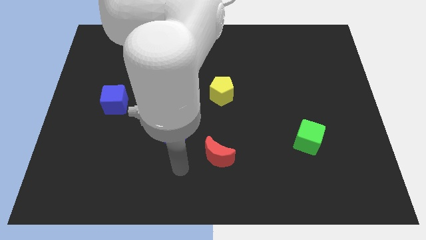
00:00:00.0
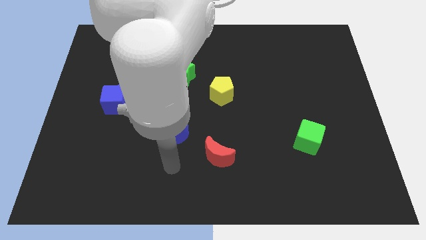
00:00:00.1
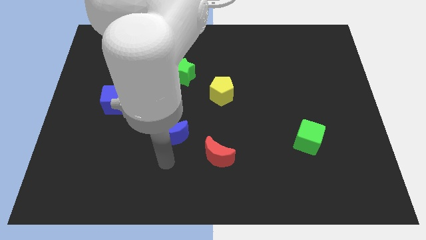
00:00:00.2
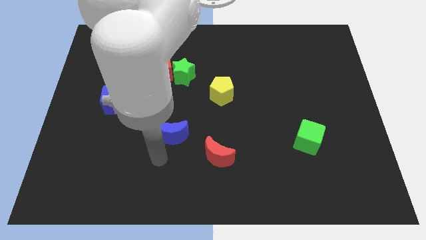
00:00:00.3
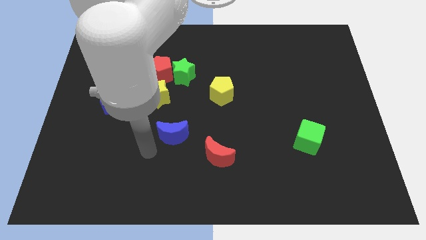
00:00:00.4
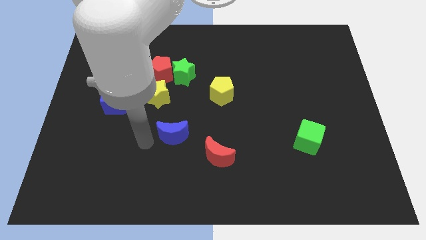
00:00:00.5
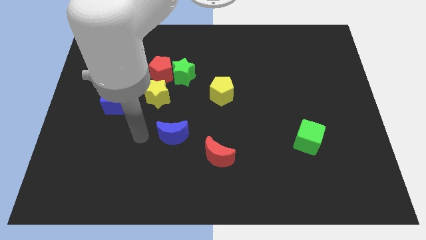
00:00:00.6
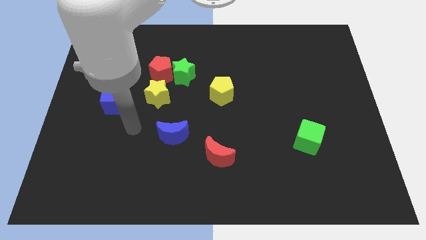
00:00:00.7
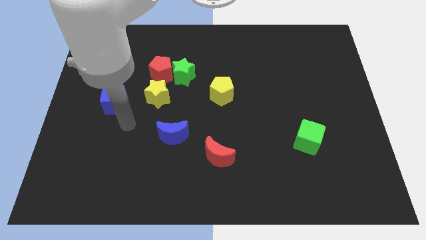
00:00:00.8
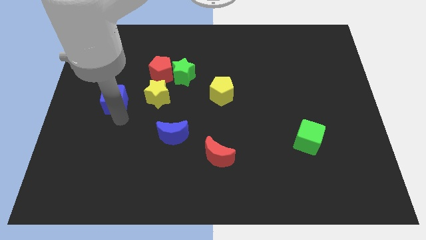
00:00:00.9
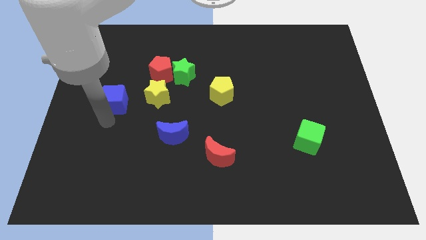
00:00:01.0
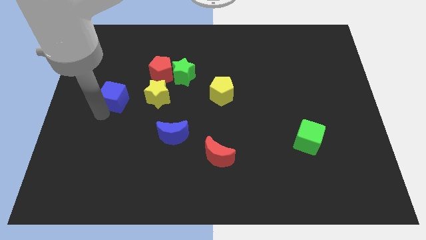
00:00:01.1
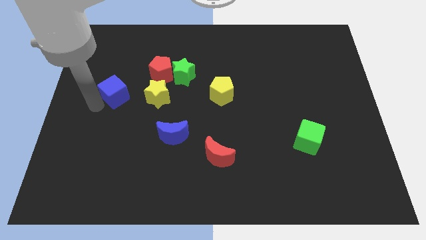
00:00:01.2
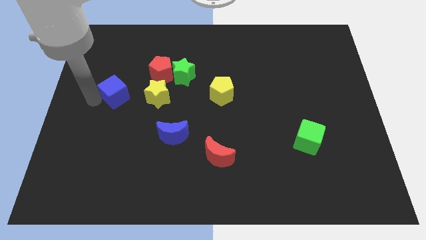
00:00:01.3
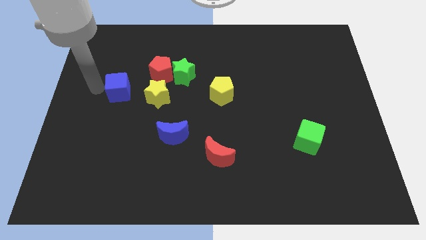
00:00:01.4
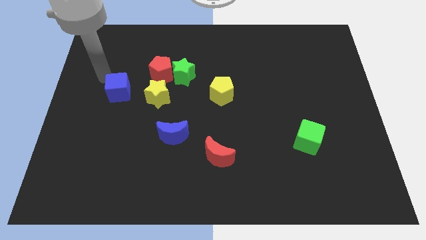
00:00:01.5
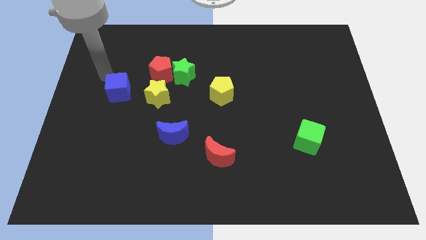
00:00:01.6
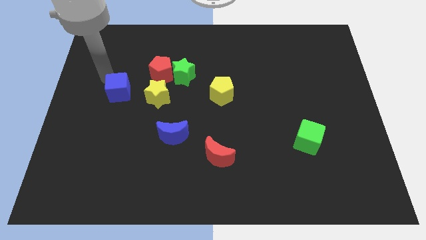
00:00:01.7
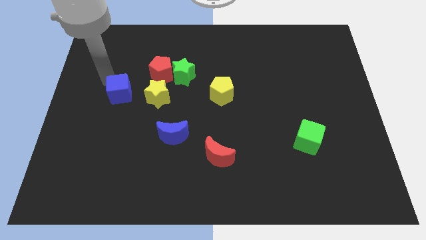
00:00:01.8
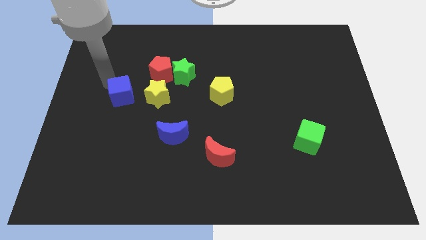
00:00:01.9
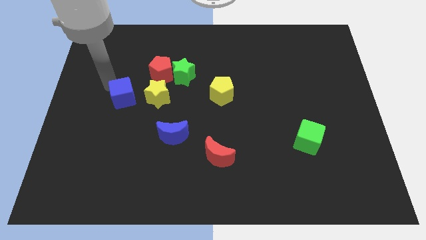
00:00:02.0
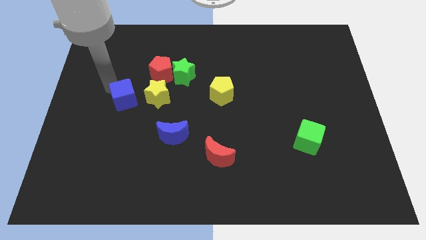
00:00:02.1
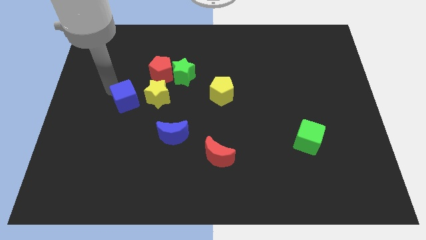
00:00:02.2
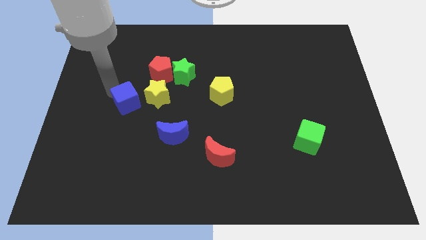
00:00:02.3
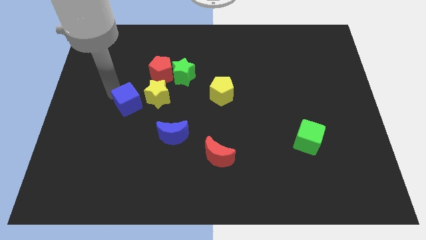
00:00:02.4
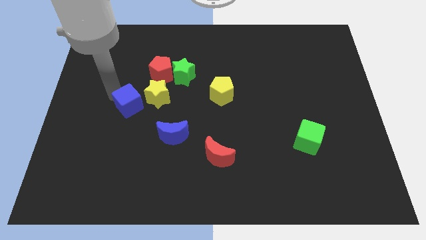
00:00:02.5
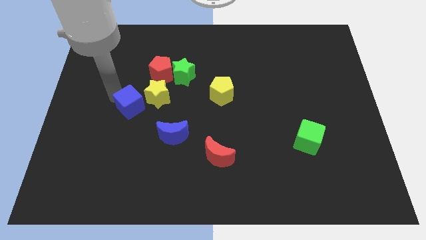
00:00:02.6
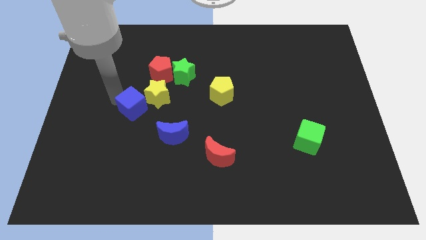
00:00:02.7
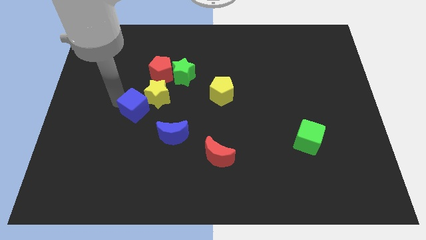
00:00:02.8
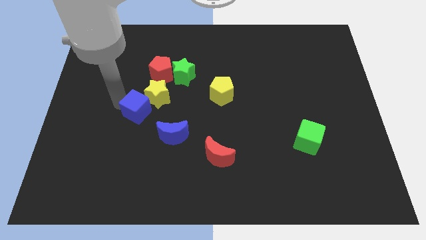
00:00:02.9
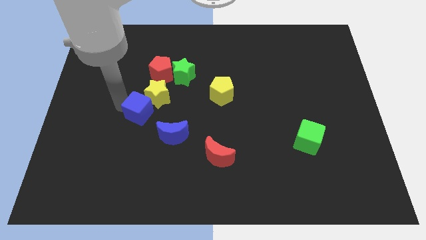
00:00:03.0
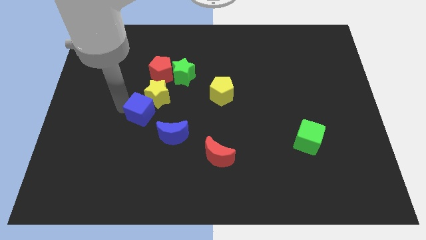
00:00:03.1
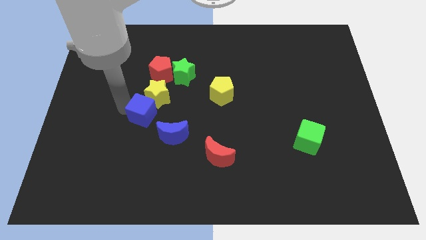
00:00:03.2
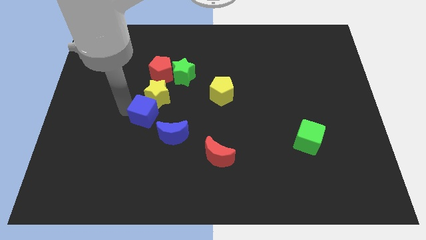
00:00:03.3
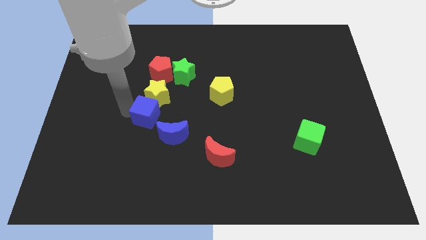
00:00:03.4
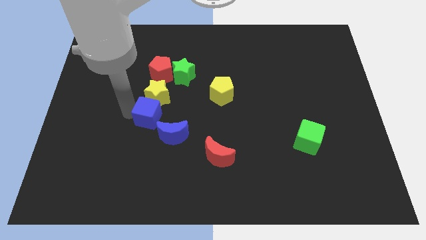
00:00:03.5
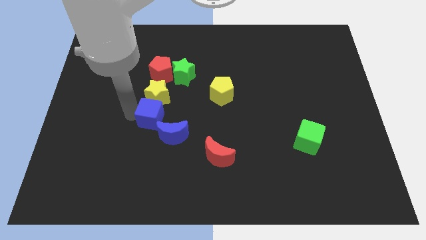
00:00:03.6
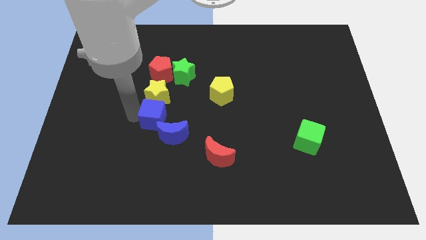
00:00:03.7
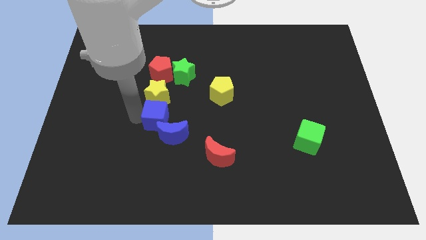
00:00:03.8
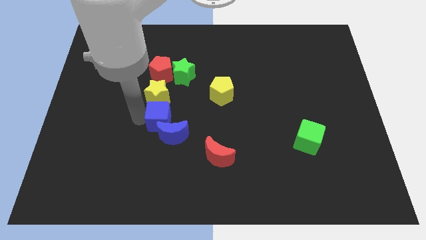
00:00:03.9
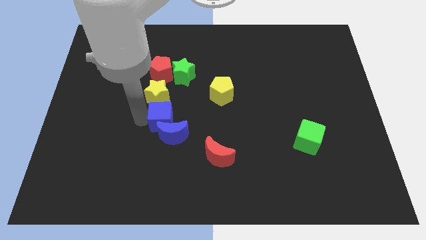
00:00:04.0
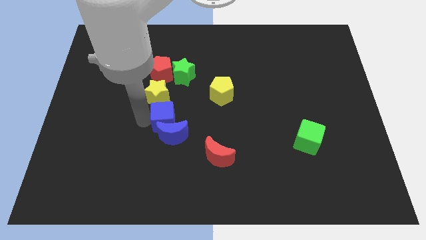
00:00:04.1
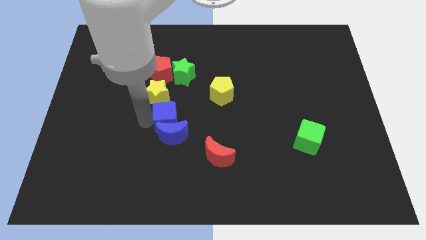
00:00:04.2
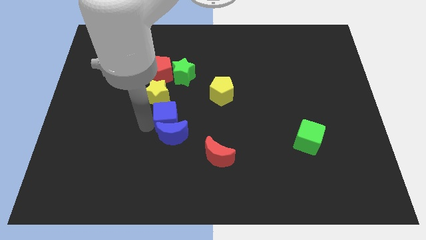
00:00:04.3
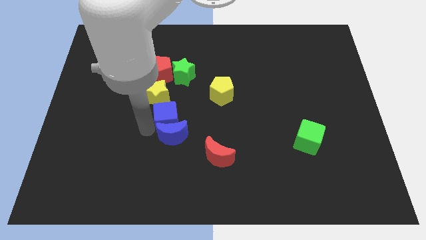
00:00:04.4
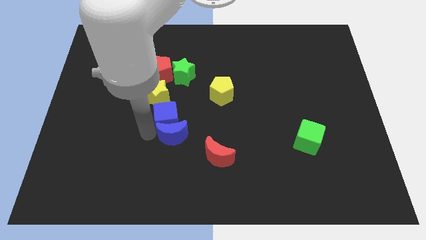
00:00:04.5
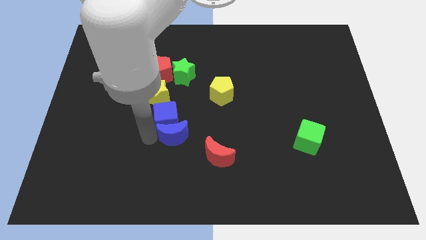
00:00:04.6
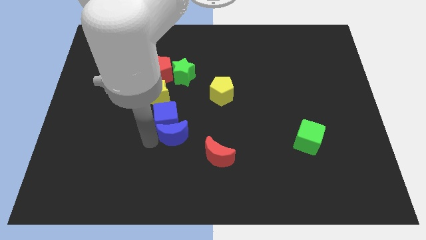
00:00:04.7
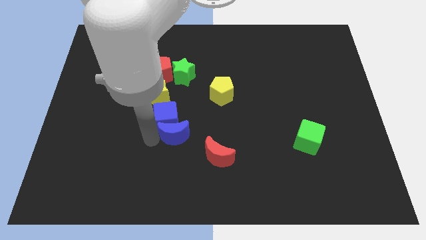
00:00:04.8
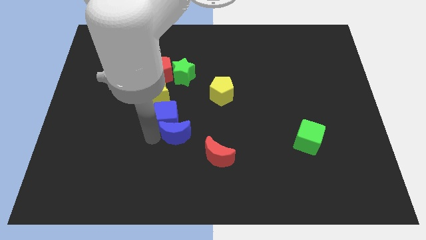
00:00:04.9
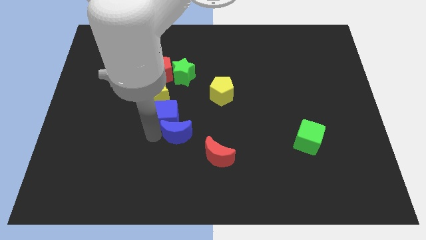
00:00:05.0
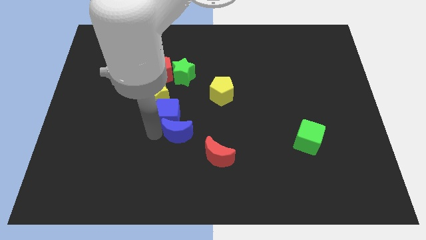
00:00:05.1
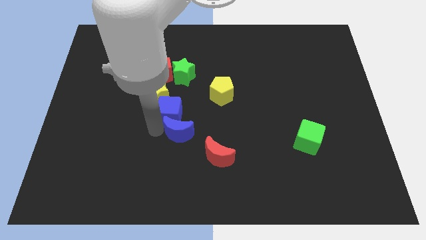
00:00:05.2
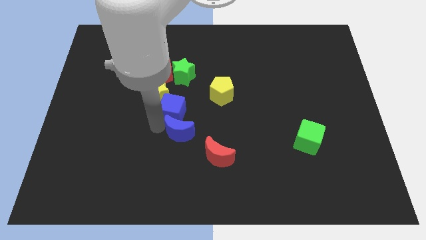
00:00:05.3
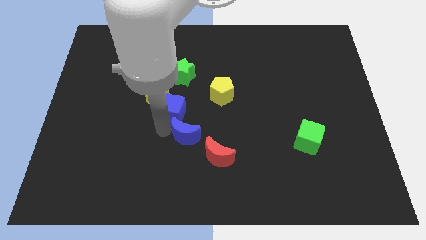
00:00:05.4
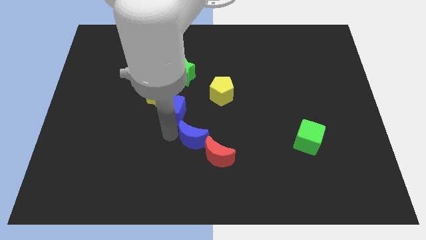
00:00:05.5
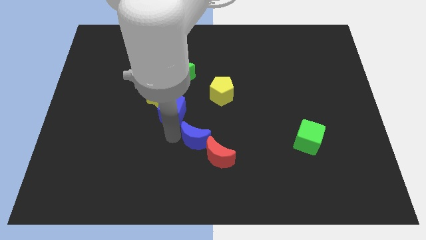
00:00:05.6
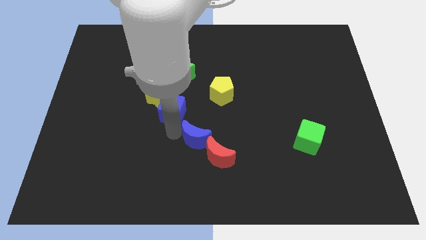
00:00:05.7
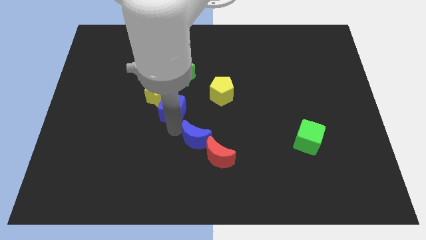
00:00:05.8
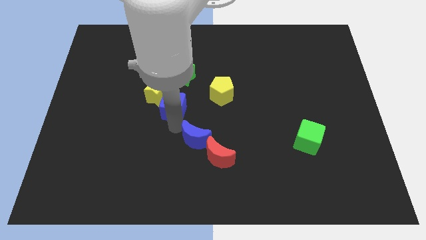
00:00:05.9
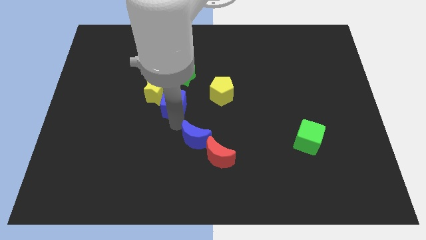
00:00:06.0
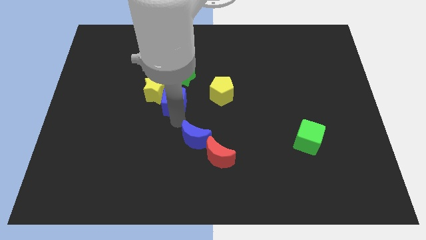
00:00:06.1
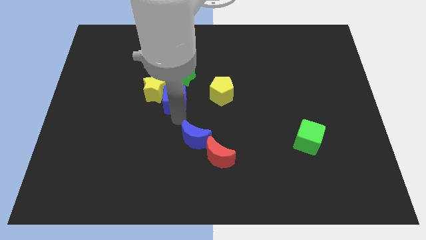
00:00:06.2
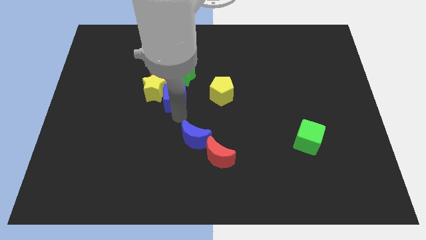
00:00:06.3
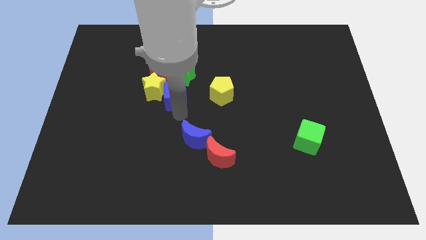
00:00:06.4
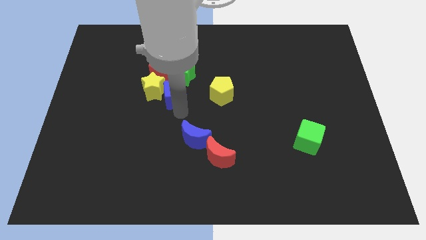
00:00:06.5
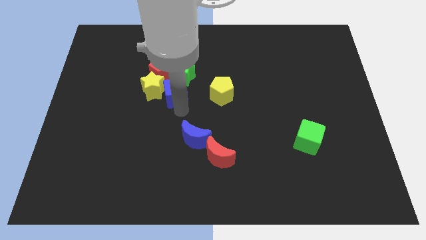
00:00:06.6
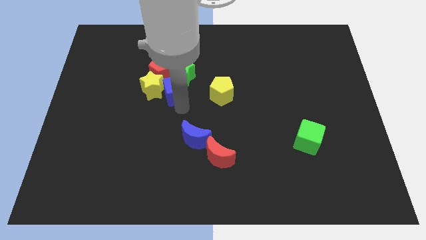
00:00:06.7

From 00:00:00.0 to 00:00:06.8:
slide the blue cube to the green star

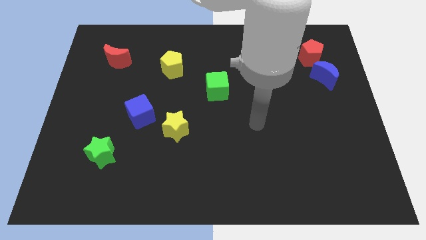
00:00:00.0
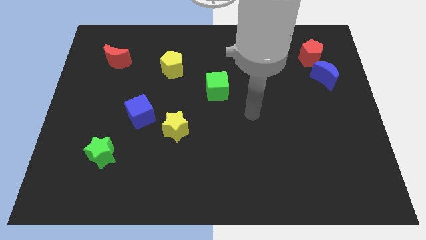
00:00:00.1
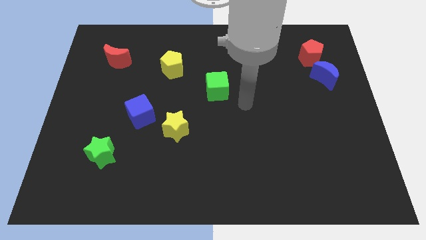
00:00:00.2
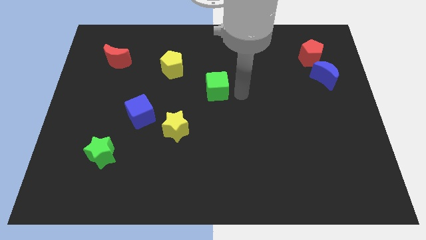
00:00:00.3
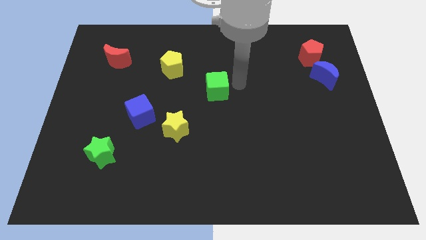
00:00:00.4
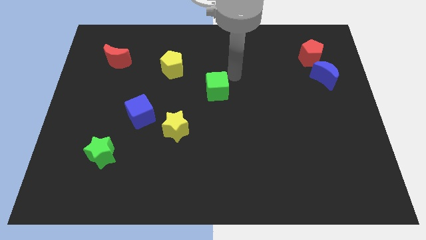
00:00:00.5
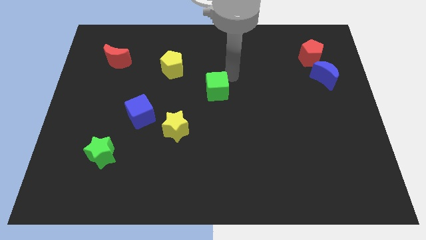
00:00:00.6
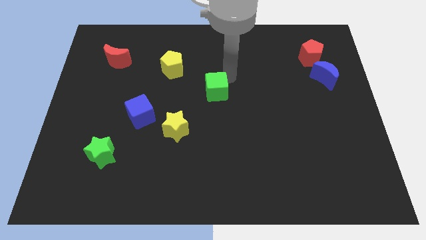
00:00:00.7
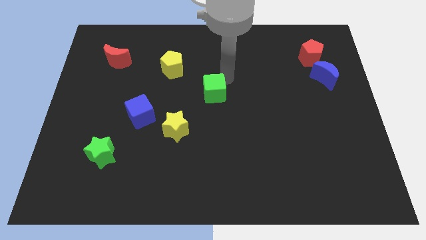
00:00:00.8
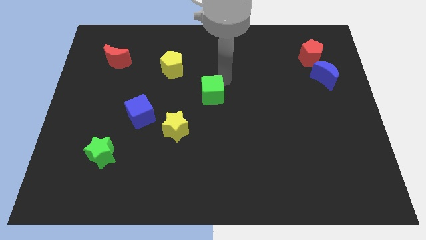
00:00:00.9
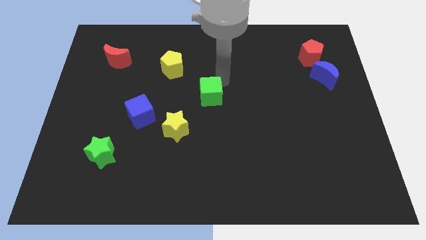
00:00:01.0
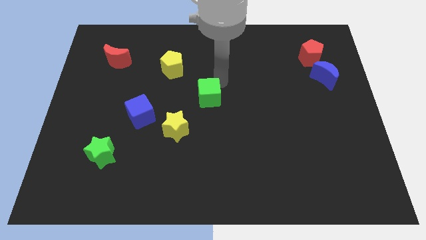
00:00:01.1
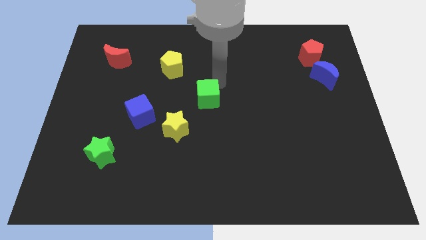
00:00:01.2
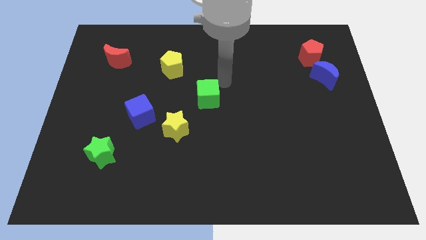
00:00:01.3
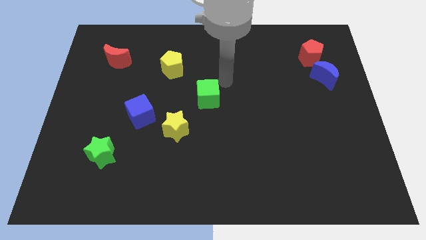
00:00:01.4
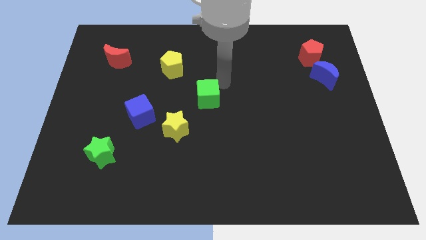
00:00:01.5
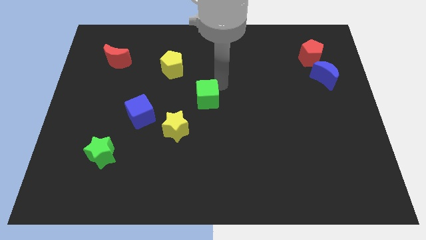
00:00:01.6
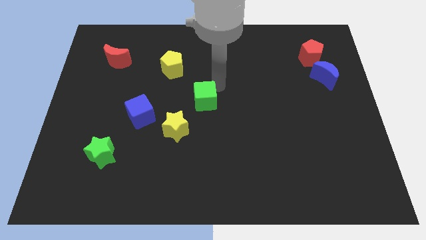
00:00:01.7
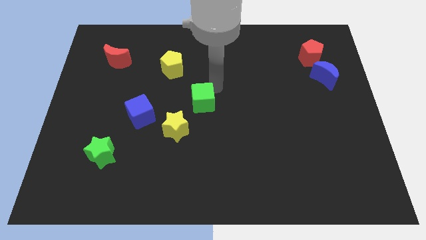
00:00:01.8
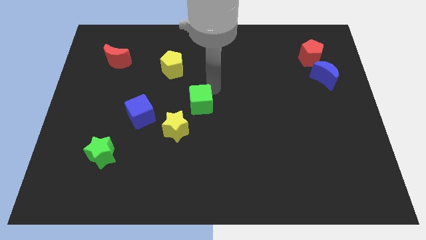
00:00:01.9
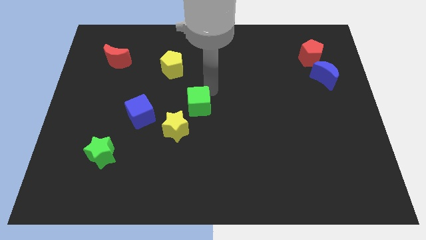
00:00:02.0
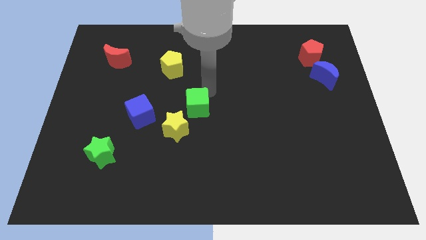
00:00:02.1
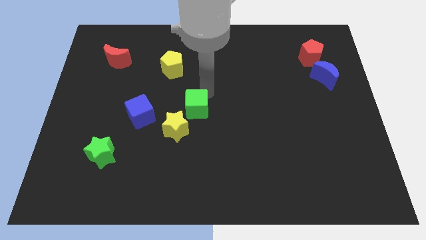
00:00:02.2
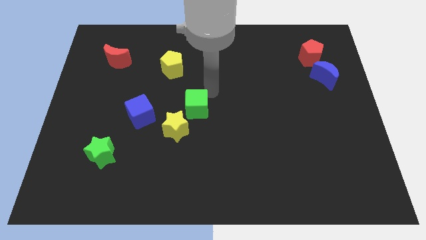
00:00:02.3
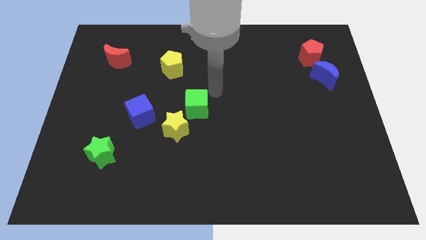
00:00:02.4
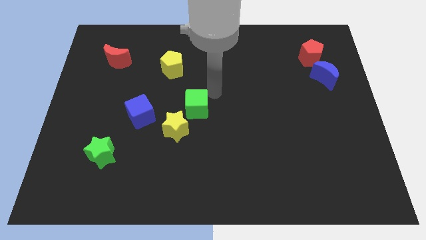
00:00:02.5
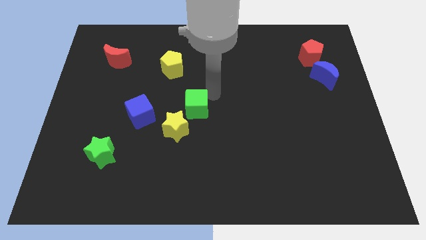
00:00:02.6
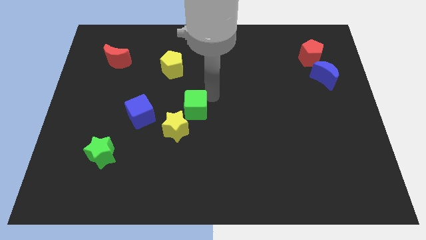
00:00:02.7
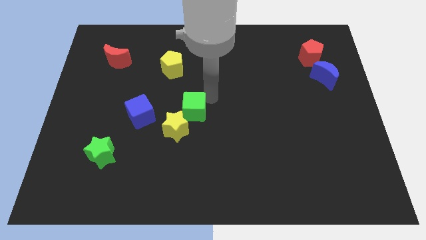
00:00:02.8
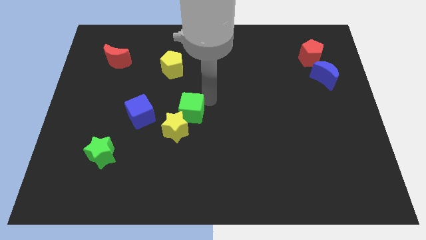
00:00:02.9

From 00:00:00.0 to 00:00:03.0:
push the green cube next to the yellow star
